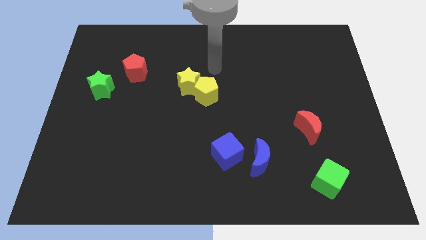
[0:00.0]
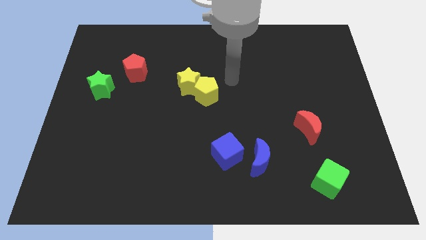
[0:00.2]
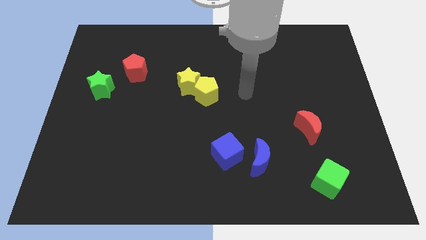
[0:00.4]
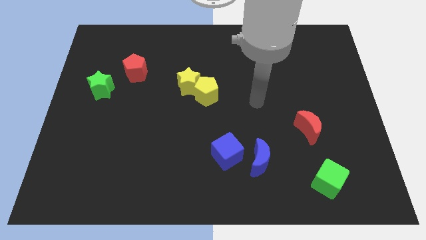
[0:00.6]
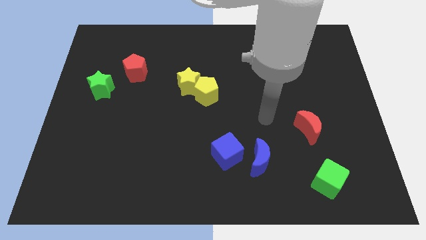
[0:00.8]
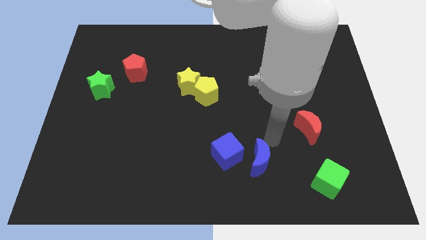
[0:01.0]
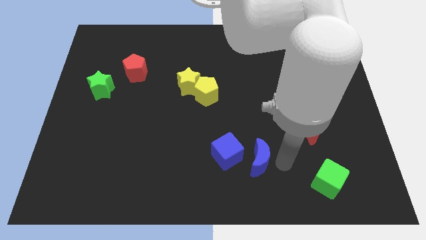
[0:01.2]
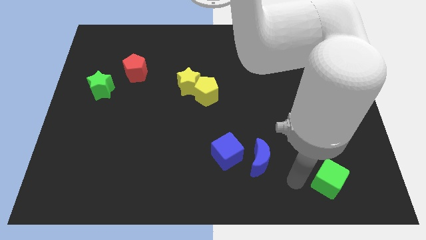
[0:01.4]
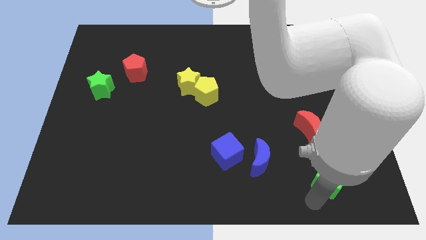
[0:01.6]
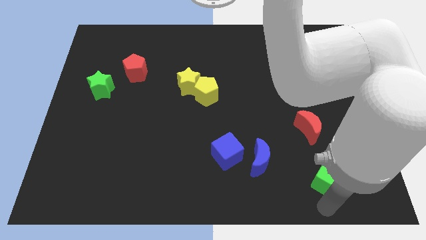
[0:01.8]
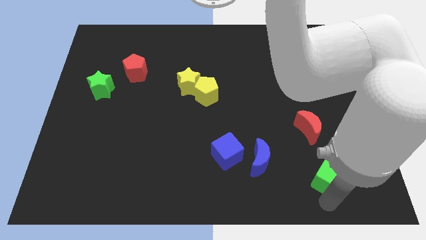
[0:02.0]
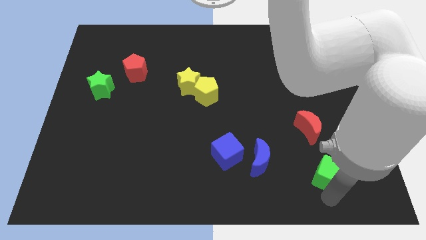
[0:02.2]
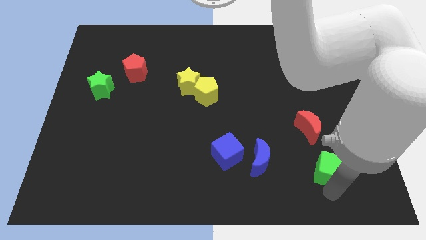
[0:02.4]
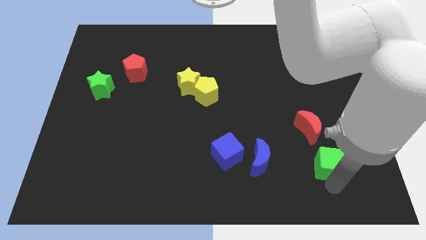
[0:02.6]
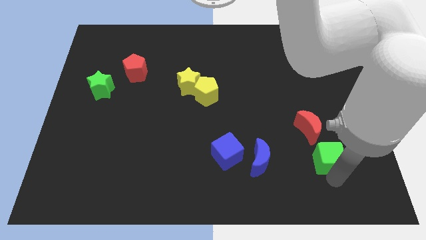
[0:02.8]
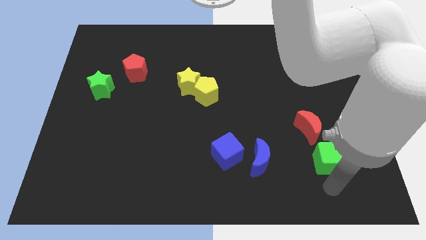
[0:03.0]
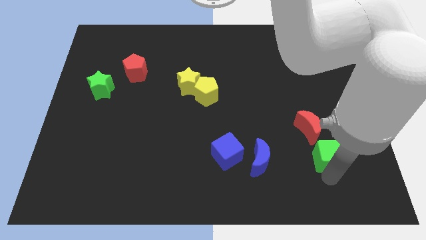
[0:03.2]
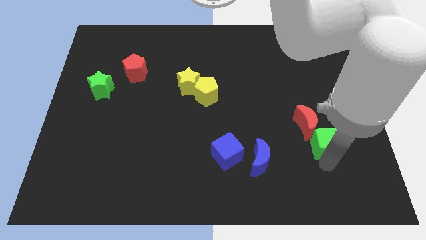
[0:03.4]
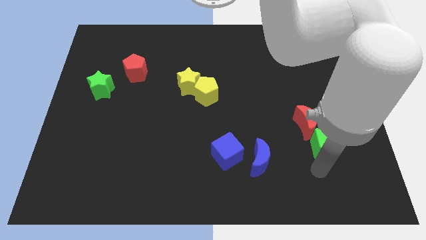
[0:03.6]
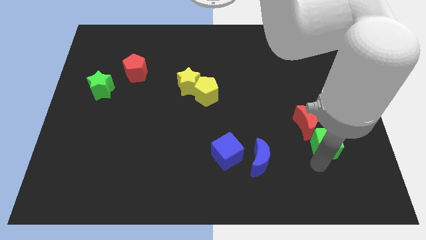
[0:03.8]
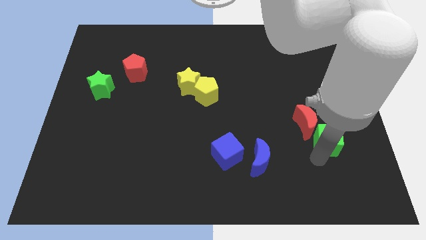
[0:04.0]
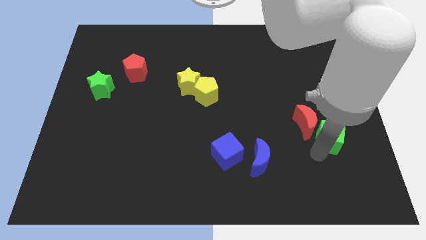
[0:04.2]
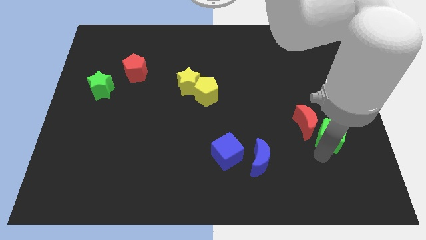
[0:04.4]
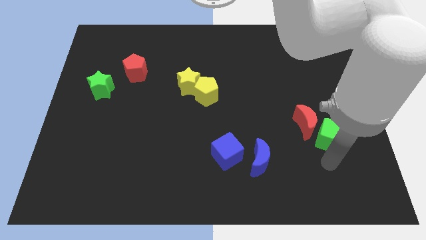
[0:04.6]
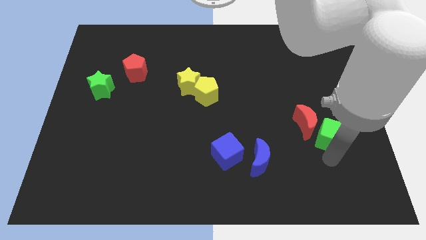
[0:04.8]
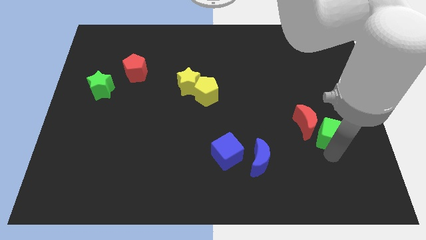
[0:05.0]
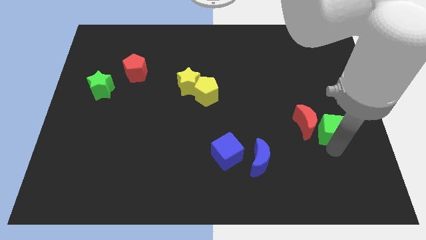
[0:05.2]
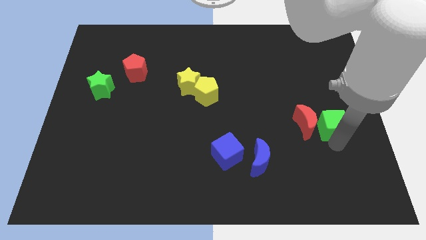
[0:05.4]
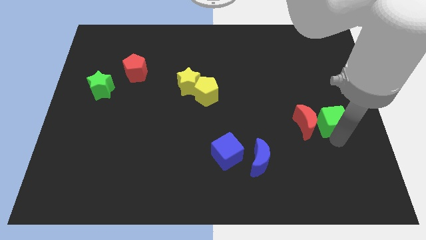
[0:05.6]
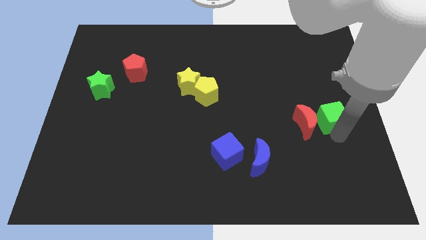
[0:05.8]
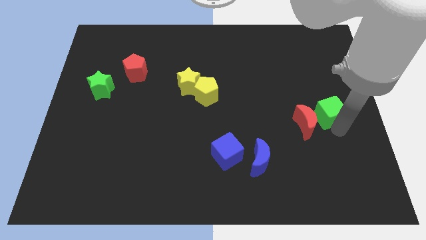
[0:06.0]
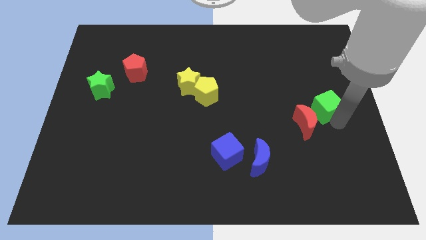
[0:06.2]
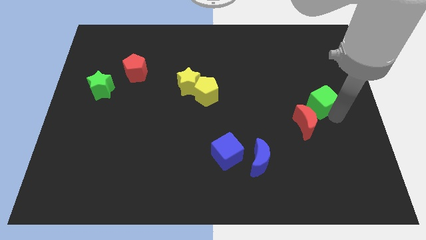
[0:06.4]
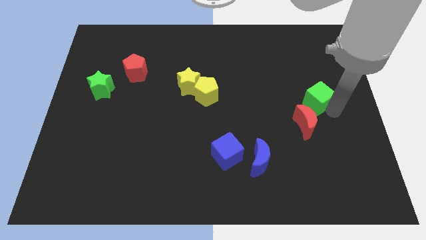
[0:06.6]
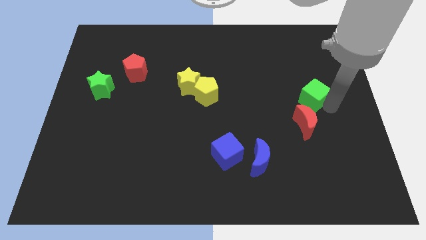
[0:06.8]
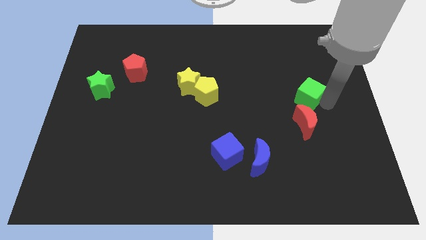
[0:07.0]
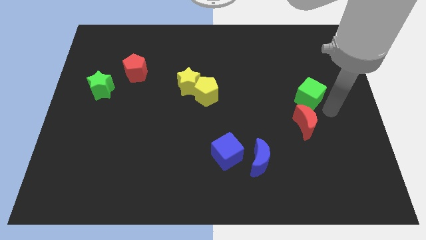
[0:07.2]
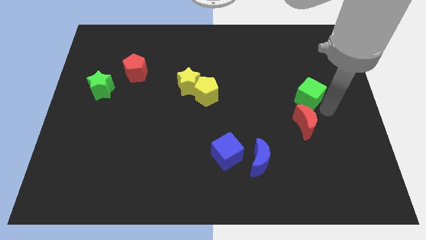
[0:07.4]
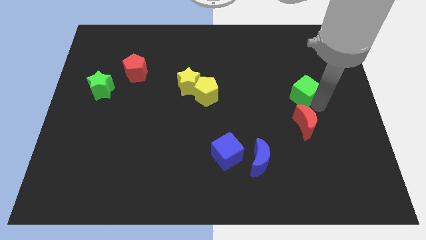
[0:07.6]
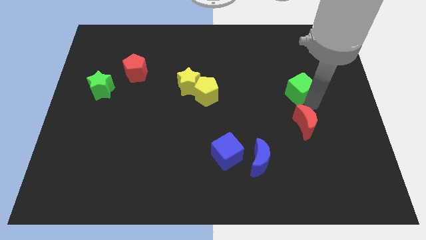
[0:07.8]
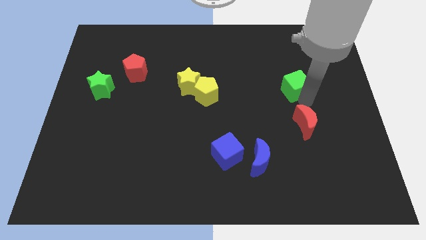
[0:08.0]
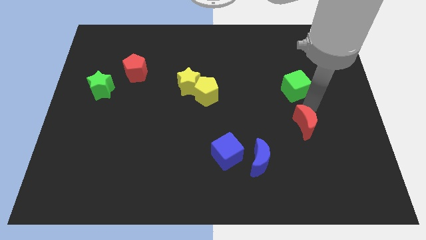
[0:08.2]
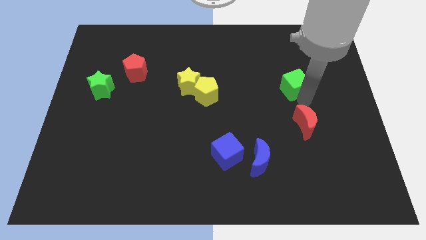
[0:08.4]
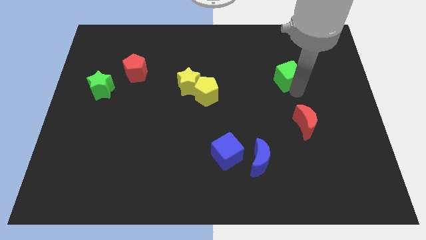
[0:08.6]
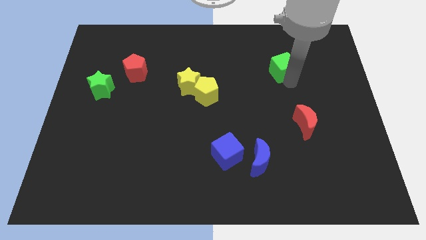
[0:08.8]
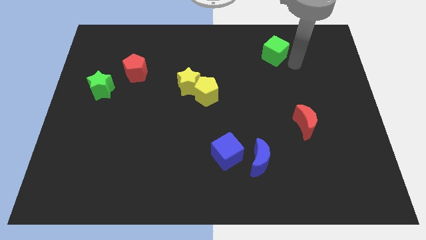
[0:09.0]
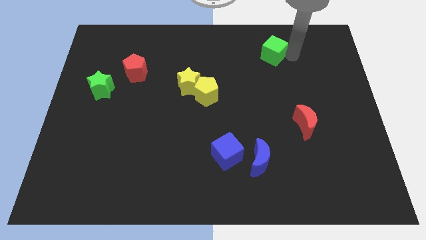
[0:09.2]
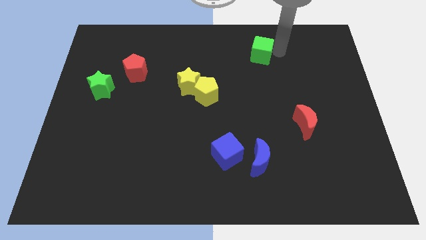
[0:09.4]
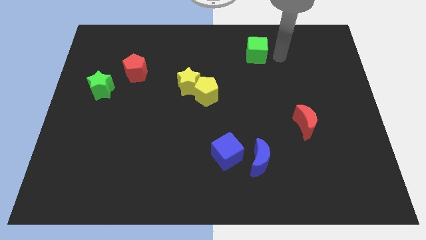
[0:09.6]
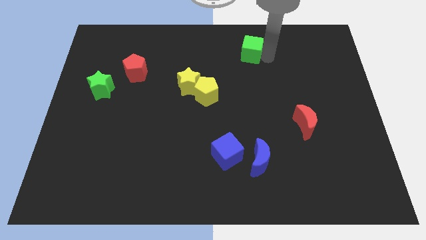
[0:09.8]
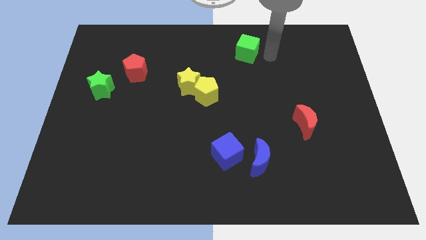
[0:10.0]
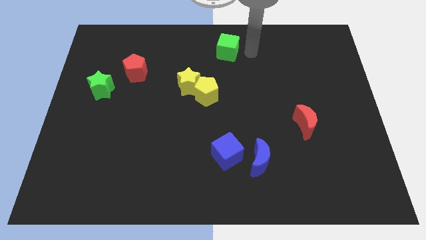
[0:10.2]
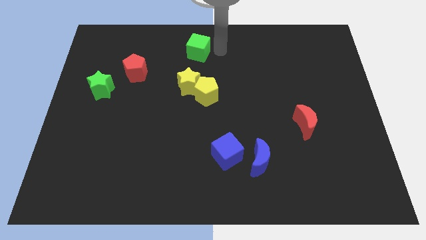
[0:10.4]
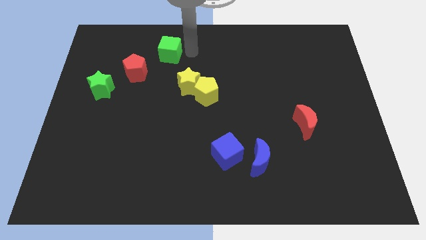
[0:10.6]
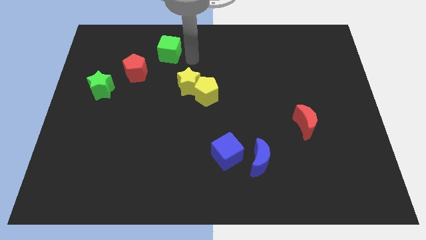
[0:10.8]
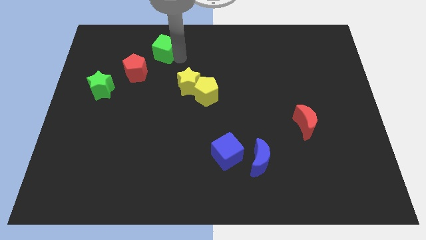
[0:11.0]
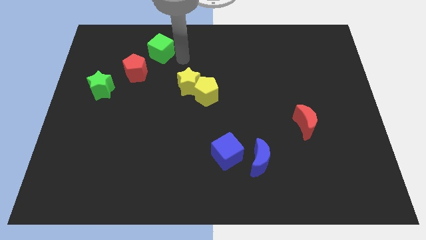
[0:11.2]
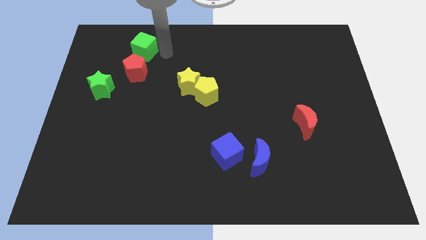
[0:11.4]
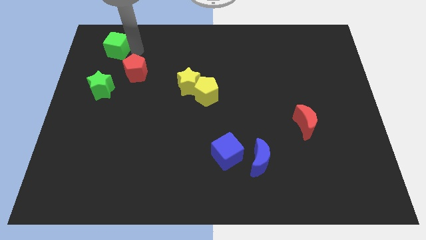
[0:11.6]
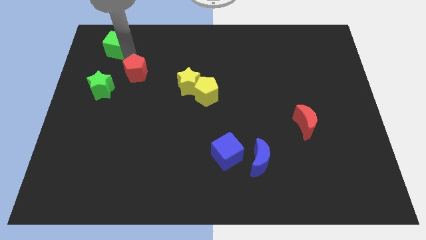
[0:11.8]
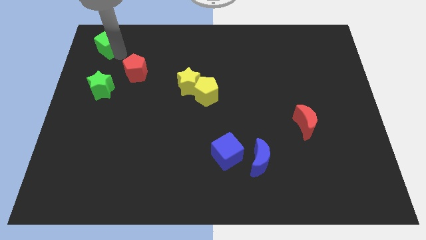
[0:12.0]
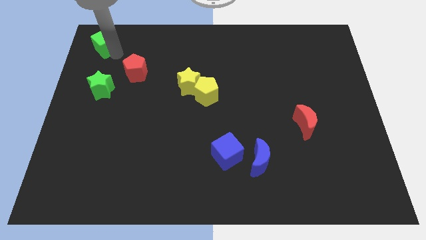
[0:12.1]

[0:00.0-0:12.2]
slide the green cube to the top left of the board

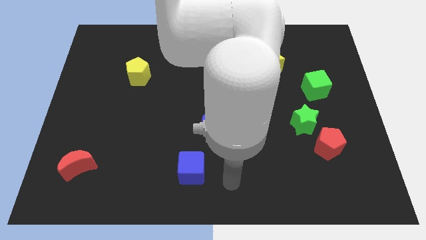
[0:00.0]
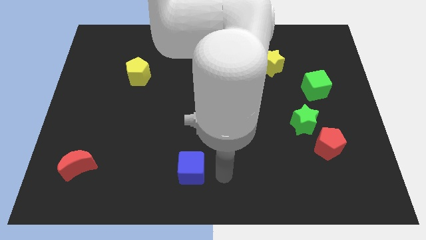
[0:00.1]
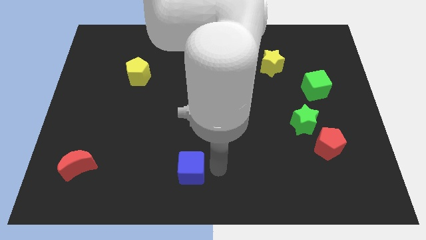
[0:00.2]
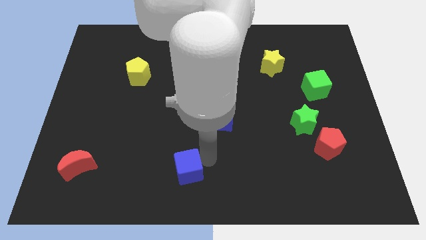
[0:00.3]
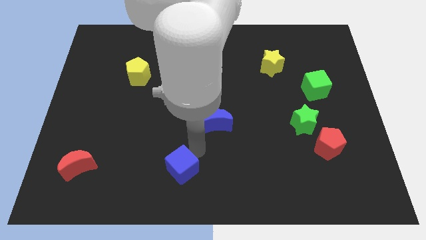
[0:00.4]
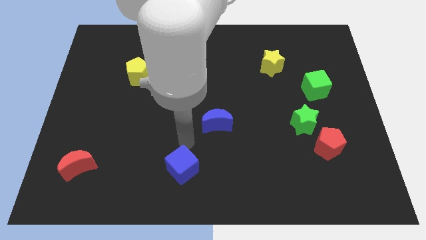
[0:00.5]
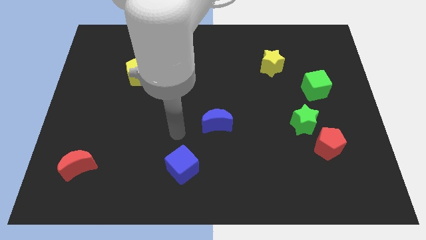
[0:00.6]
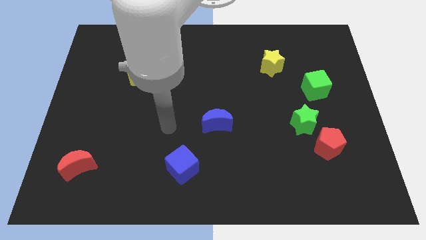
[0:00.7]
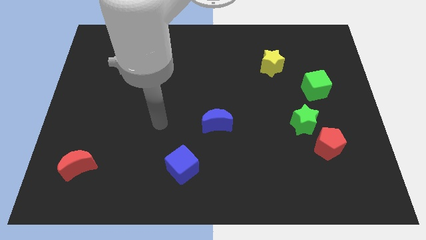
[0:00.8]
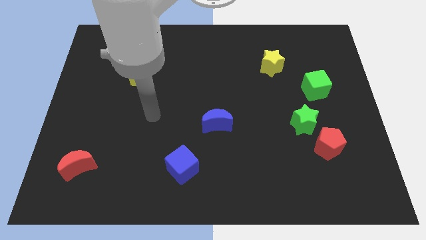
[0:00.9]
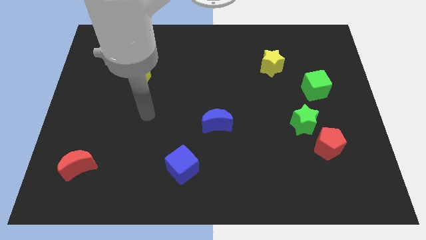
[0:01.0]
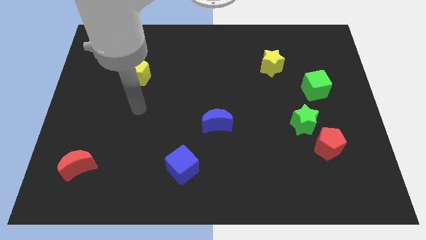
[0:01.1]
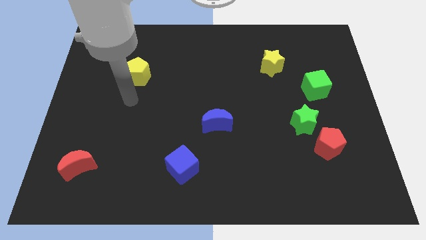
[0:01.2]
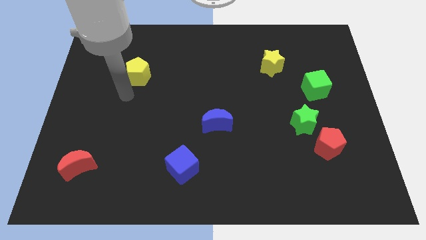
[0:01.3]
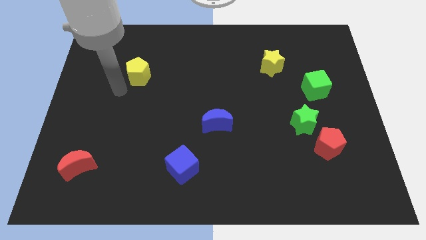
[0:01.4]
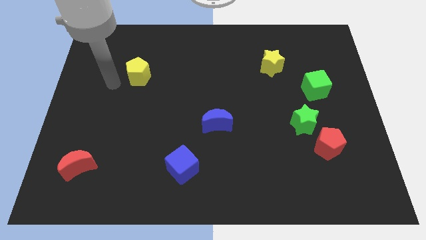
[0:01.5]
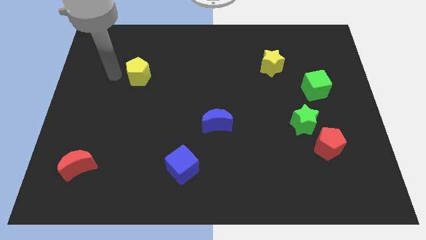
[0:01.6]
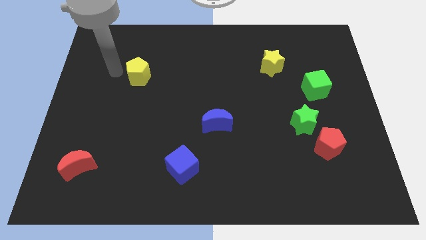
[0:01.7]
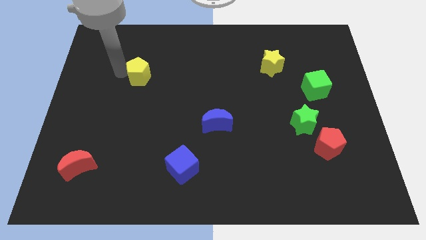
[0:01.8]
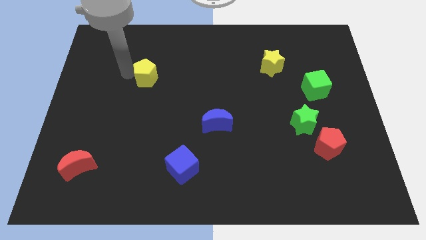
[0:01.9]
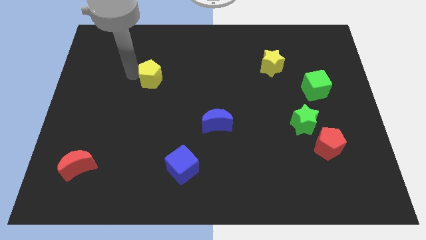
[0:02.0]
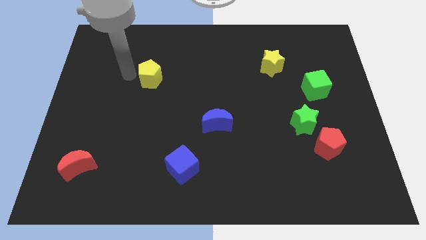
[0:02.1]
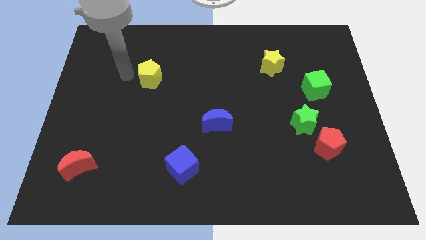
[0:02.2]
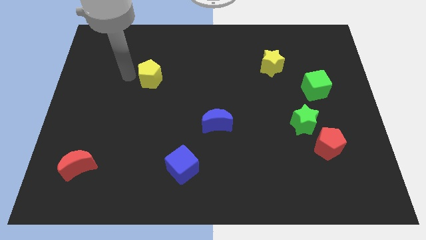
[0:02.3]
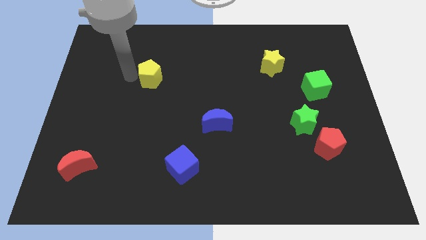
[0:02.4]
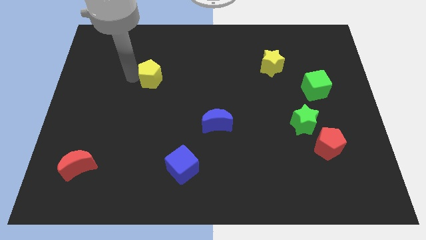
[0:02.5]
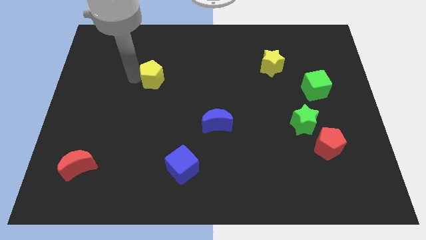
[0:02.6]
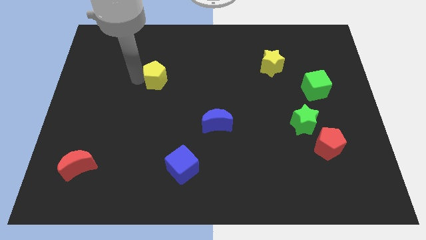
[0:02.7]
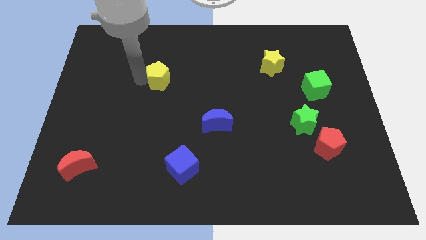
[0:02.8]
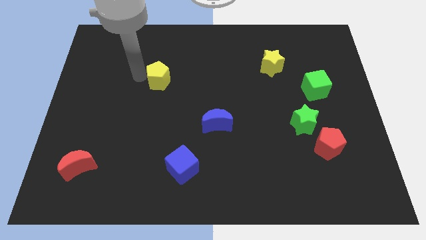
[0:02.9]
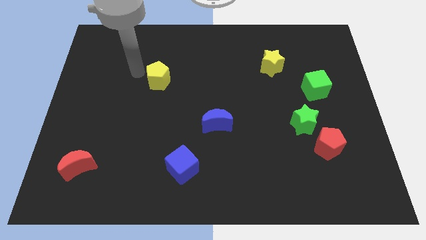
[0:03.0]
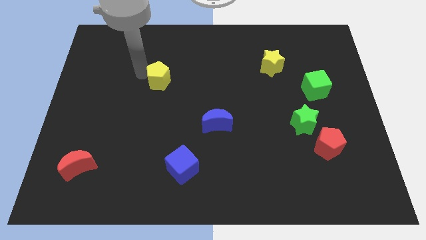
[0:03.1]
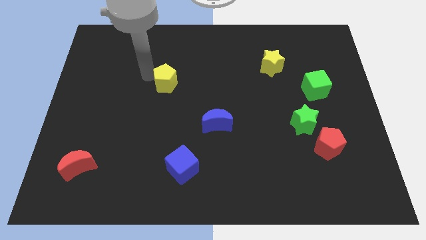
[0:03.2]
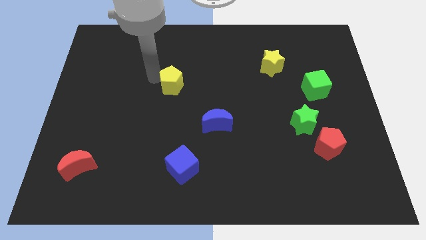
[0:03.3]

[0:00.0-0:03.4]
push the yellow pentagon to the middle
